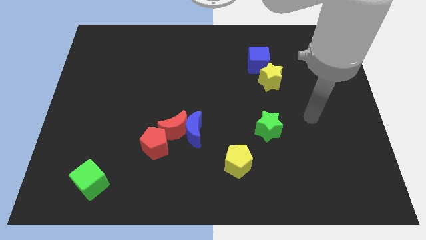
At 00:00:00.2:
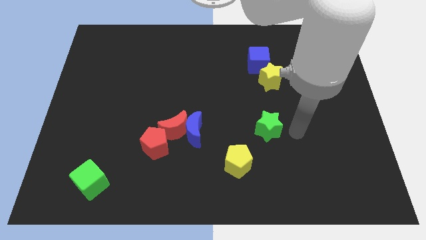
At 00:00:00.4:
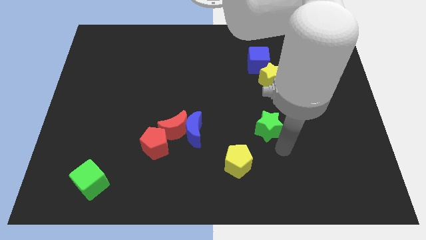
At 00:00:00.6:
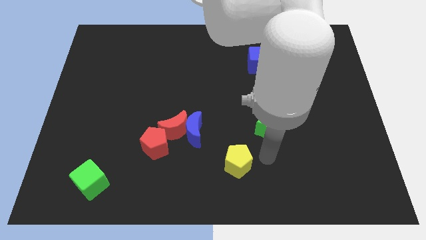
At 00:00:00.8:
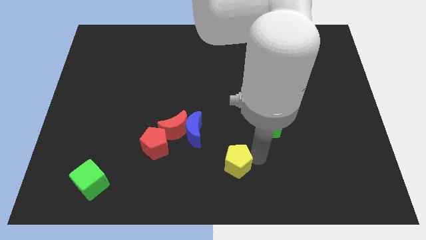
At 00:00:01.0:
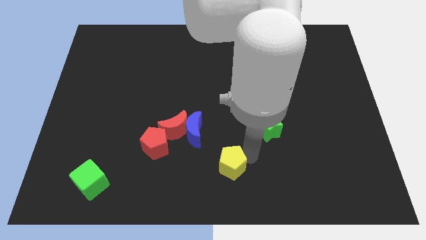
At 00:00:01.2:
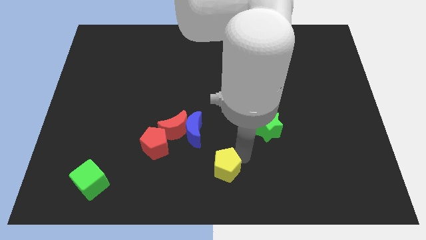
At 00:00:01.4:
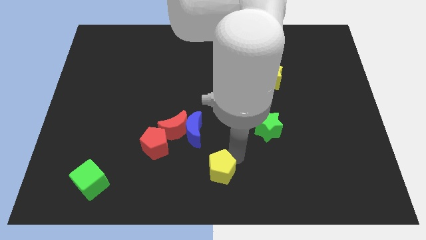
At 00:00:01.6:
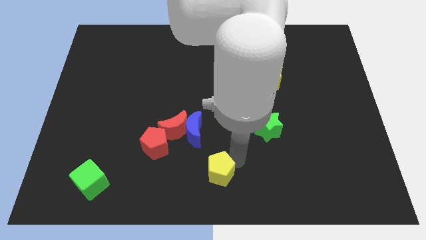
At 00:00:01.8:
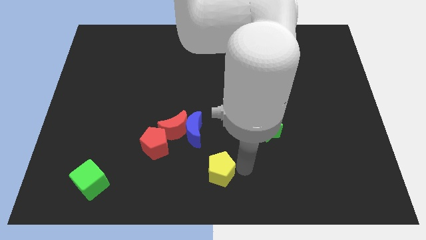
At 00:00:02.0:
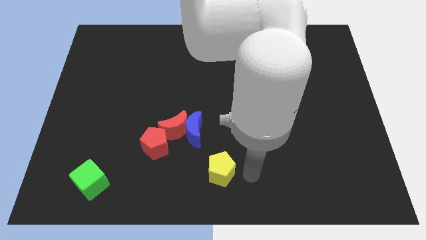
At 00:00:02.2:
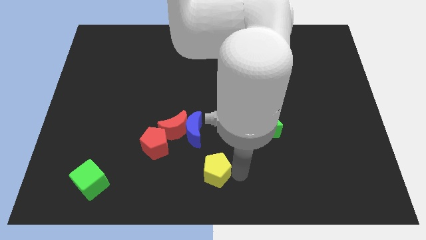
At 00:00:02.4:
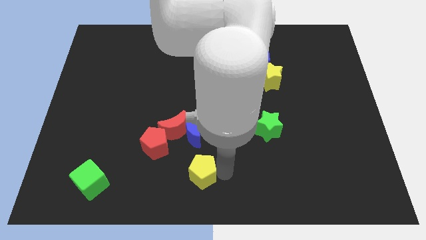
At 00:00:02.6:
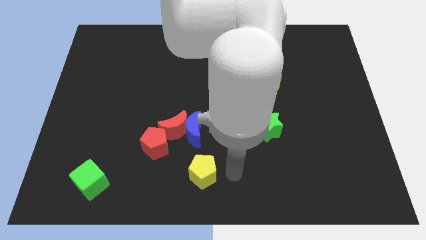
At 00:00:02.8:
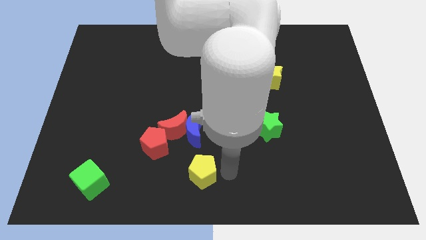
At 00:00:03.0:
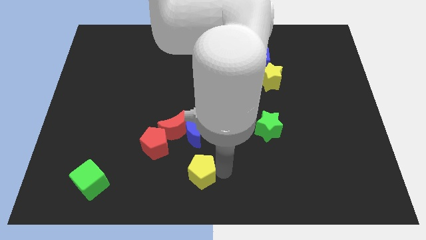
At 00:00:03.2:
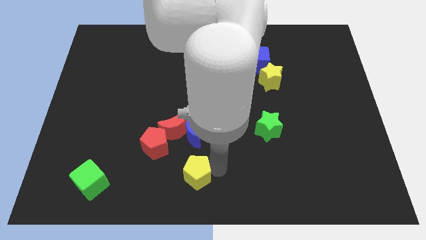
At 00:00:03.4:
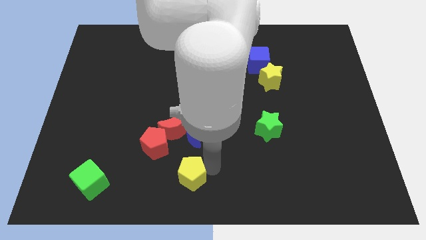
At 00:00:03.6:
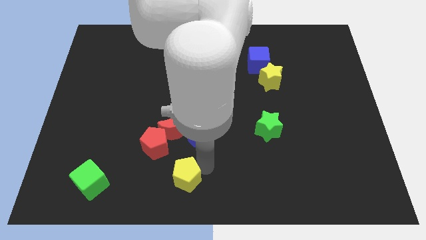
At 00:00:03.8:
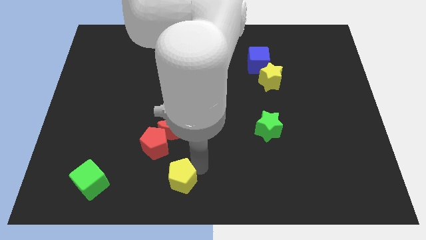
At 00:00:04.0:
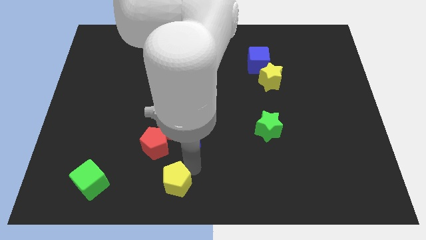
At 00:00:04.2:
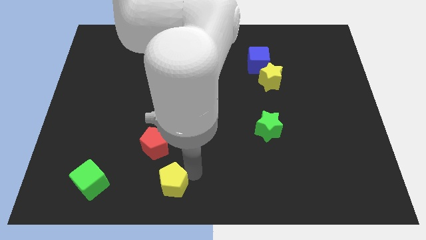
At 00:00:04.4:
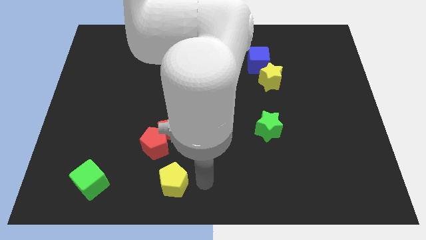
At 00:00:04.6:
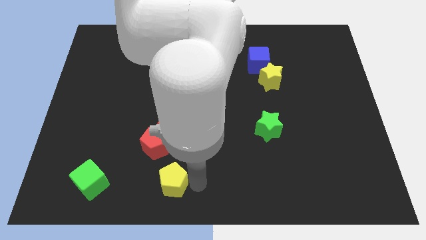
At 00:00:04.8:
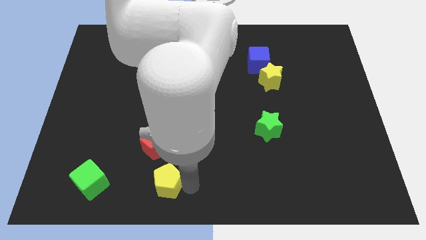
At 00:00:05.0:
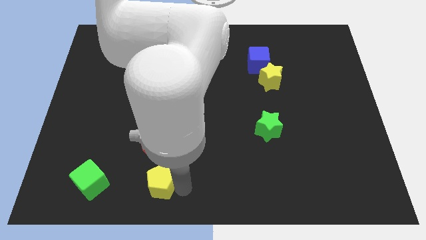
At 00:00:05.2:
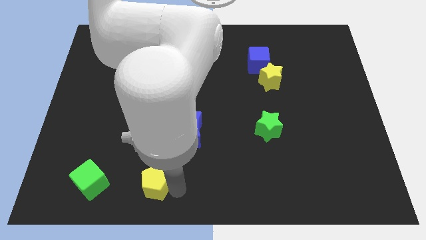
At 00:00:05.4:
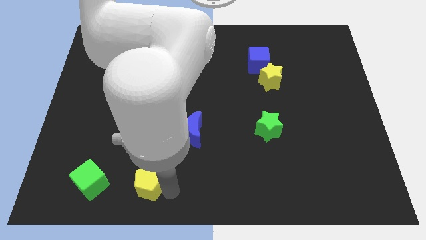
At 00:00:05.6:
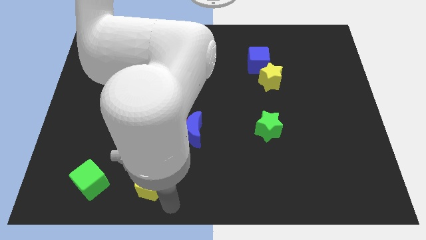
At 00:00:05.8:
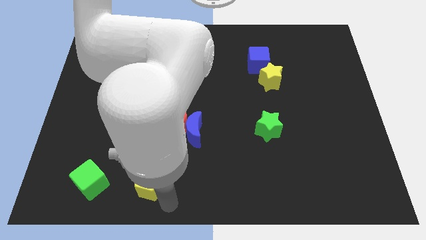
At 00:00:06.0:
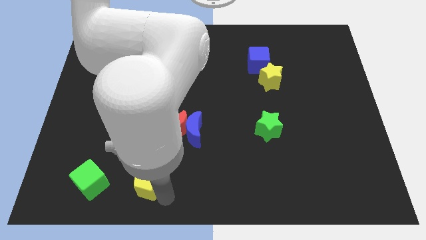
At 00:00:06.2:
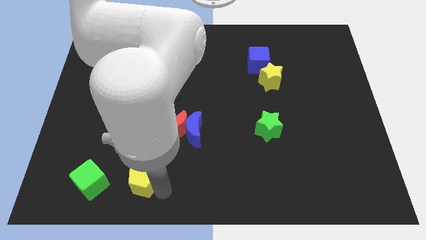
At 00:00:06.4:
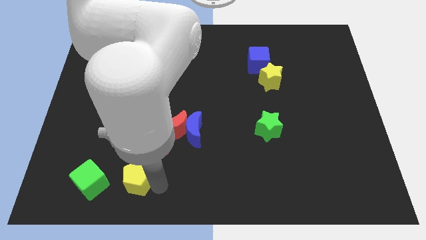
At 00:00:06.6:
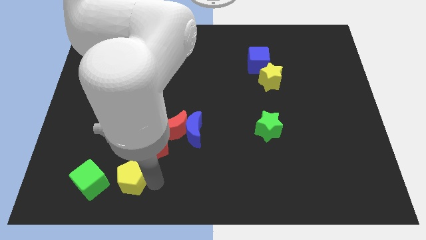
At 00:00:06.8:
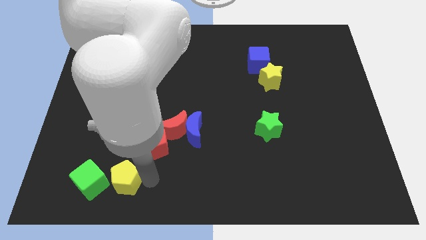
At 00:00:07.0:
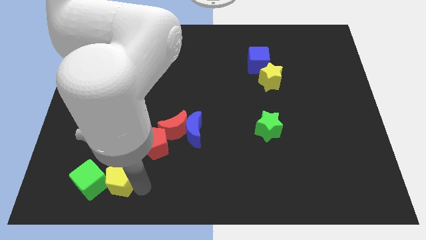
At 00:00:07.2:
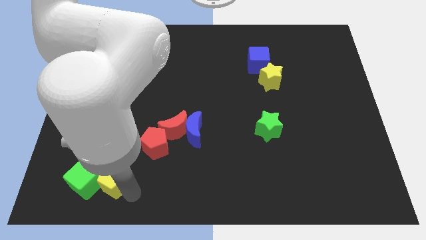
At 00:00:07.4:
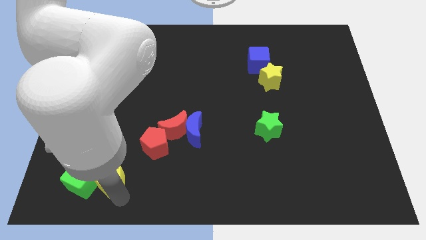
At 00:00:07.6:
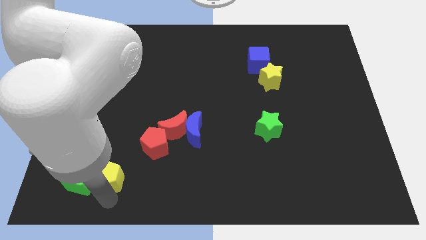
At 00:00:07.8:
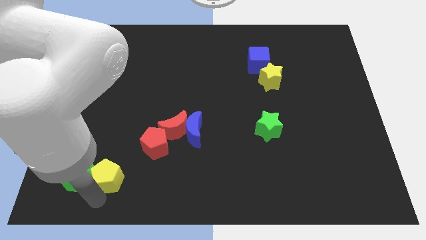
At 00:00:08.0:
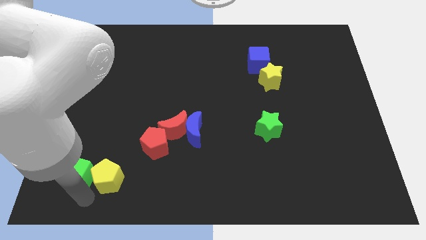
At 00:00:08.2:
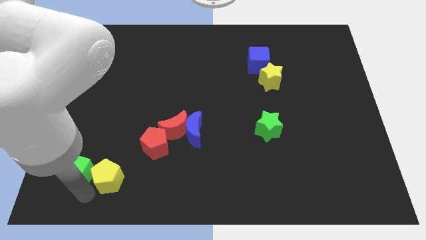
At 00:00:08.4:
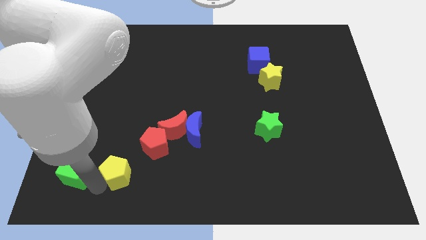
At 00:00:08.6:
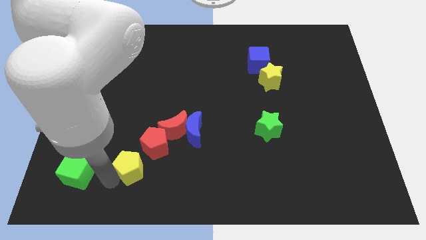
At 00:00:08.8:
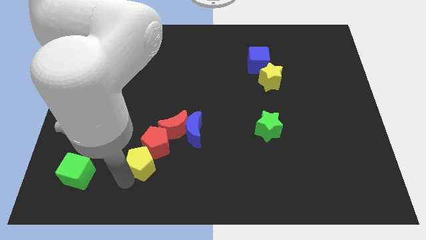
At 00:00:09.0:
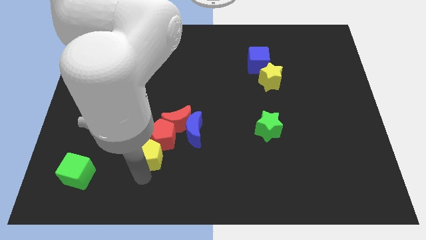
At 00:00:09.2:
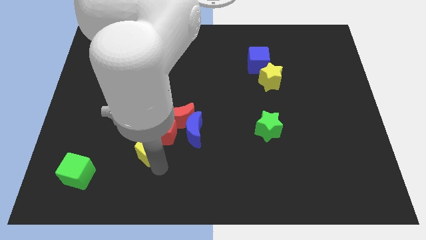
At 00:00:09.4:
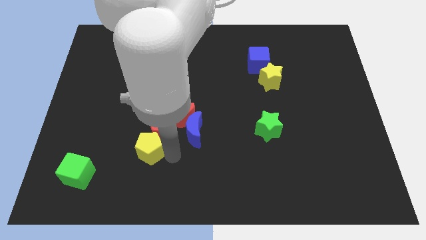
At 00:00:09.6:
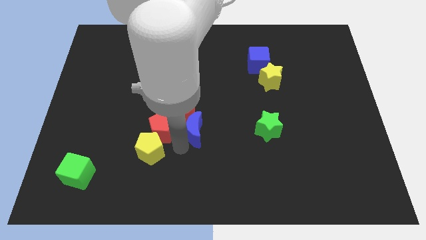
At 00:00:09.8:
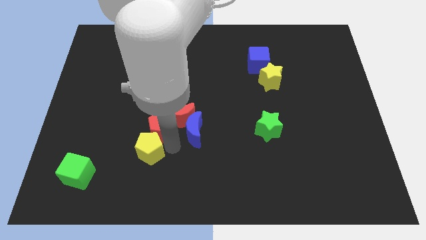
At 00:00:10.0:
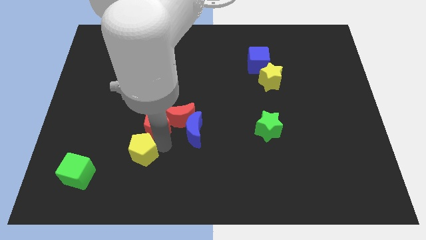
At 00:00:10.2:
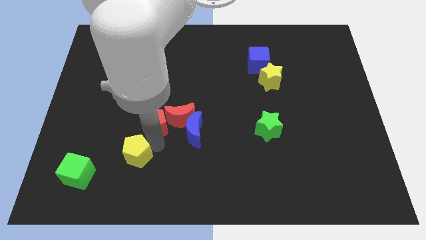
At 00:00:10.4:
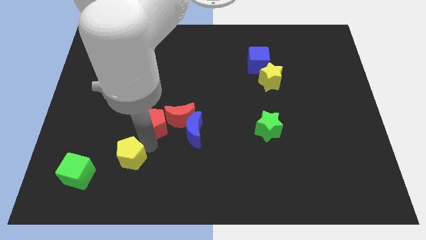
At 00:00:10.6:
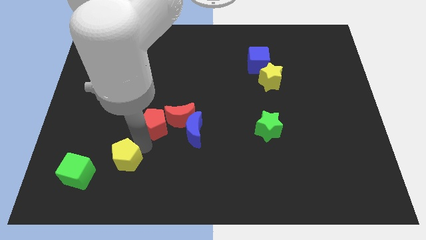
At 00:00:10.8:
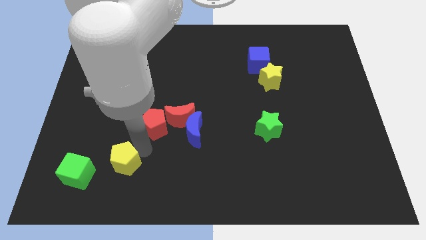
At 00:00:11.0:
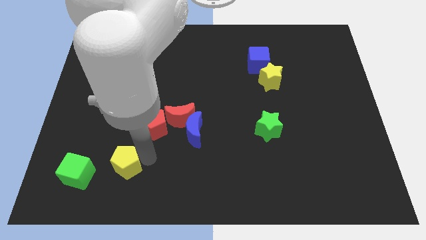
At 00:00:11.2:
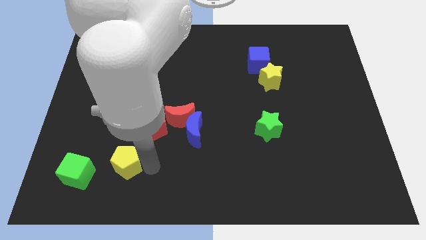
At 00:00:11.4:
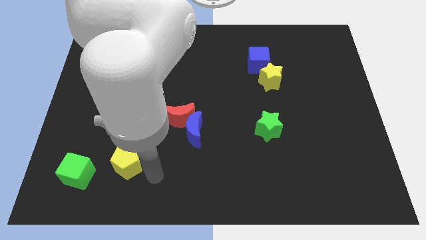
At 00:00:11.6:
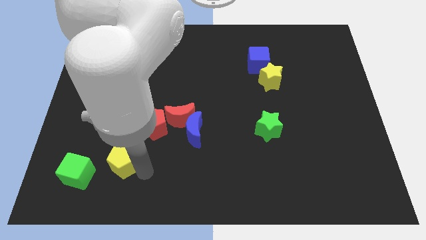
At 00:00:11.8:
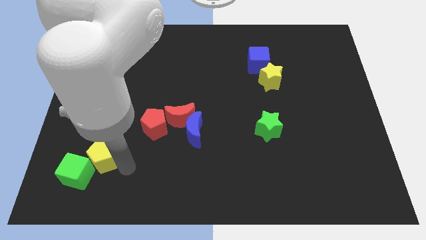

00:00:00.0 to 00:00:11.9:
move the yellow pentagon to the top of the green cube
